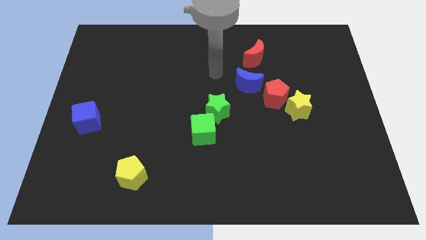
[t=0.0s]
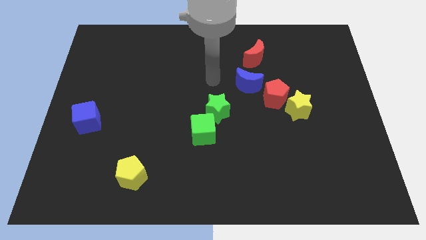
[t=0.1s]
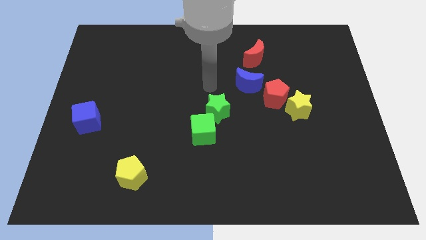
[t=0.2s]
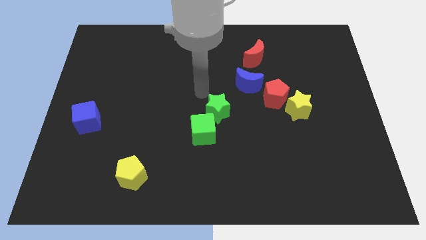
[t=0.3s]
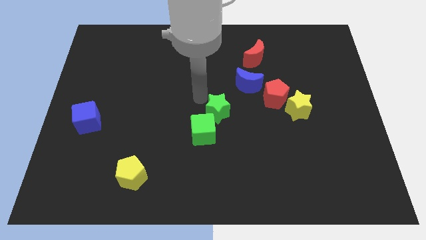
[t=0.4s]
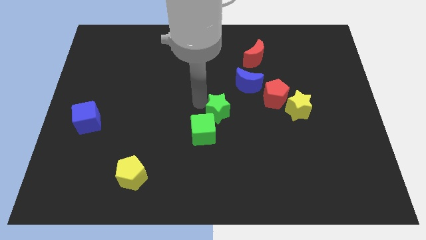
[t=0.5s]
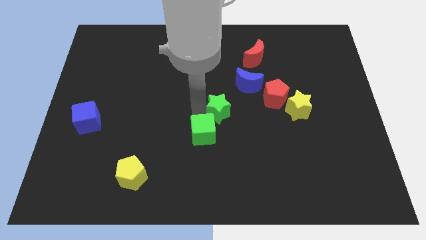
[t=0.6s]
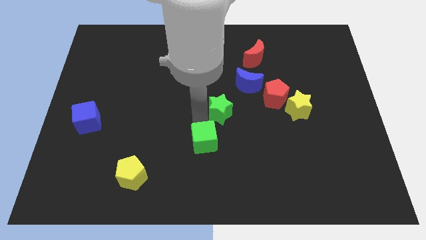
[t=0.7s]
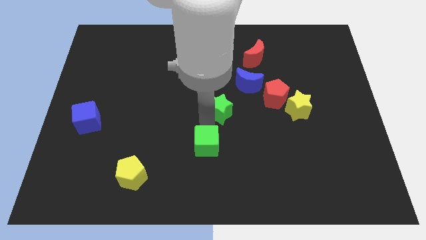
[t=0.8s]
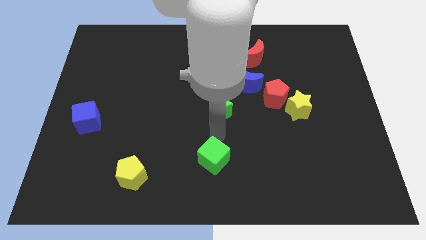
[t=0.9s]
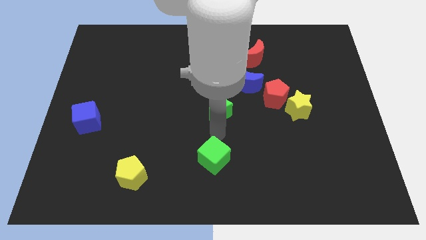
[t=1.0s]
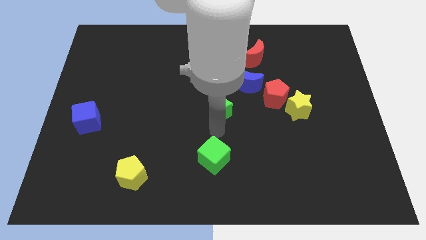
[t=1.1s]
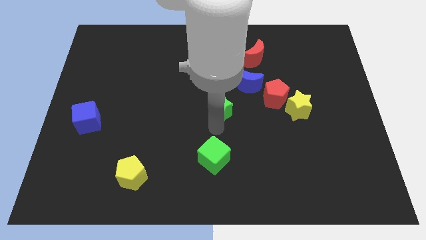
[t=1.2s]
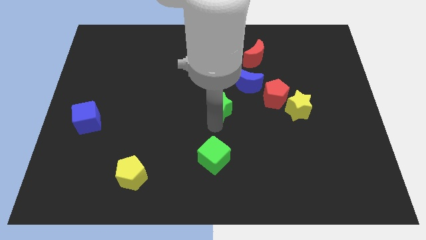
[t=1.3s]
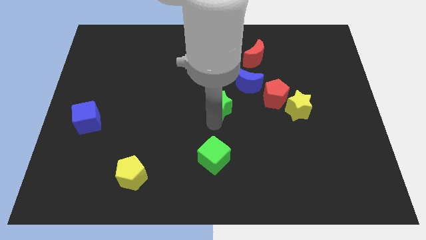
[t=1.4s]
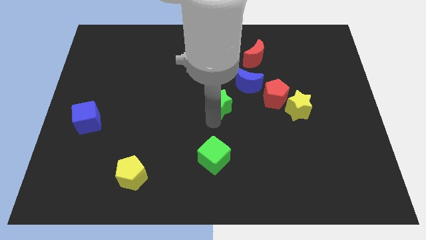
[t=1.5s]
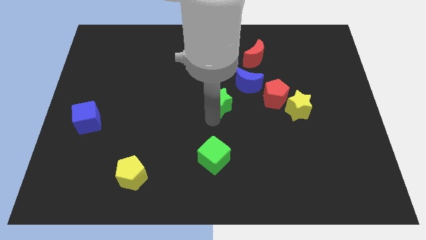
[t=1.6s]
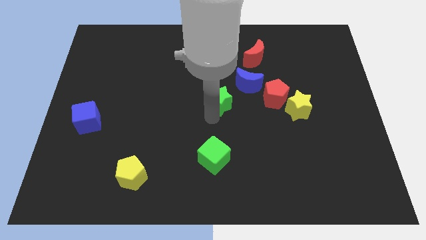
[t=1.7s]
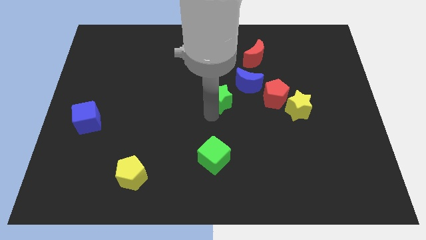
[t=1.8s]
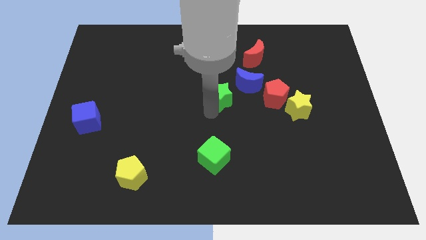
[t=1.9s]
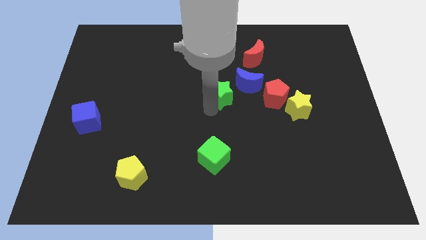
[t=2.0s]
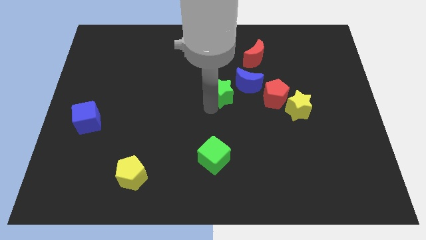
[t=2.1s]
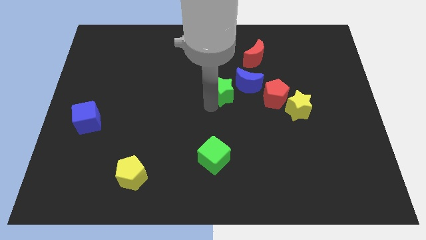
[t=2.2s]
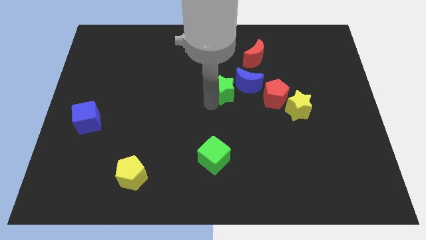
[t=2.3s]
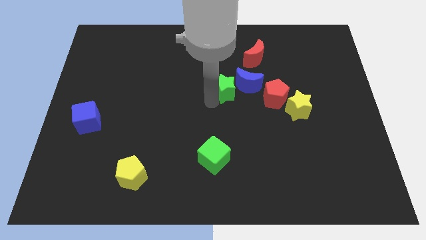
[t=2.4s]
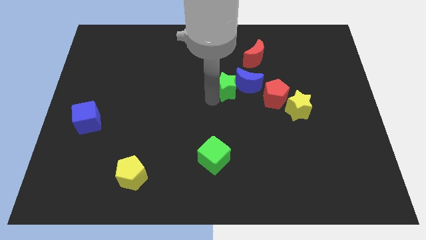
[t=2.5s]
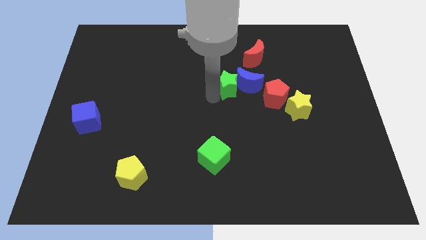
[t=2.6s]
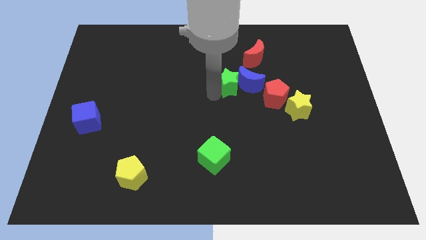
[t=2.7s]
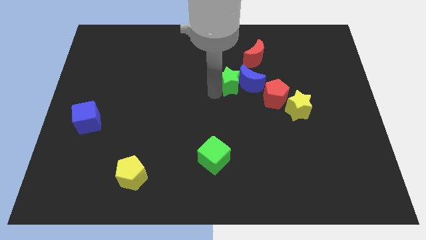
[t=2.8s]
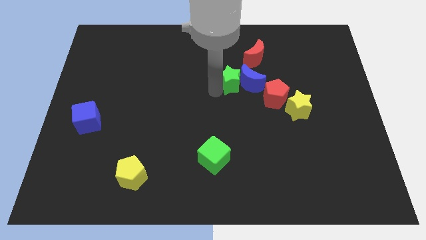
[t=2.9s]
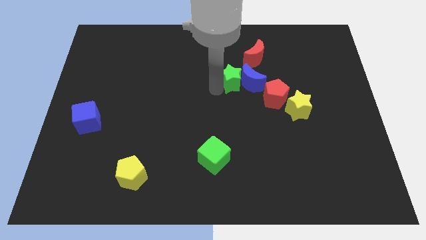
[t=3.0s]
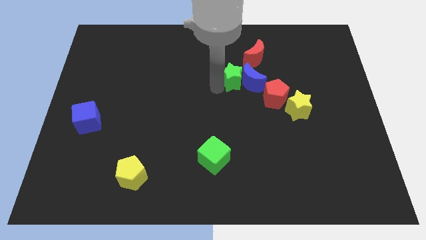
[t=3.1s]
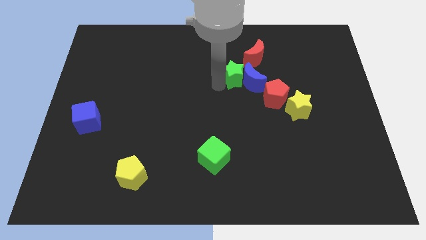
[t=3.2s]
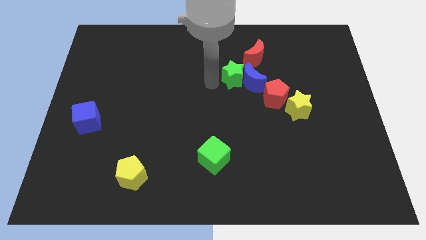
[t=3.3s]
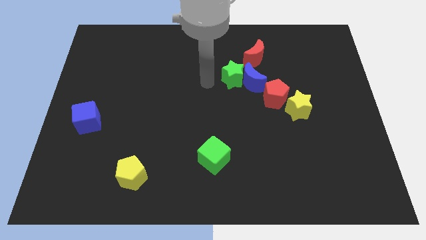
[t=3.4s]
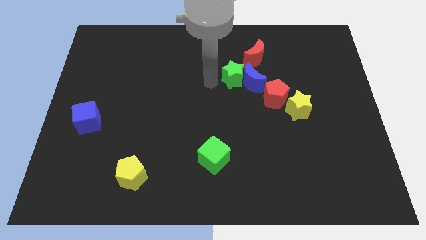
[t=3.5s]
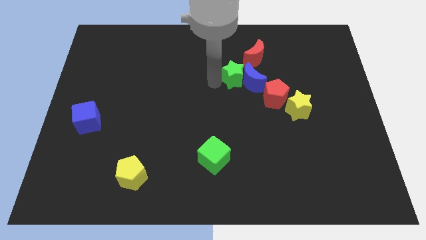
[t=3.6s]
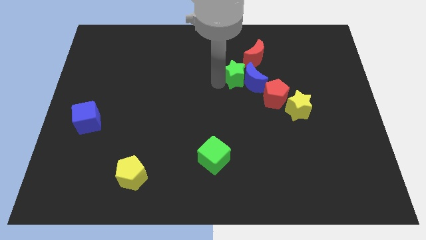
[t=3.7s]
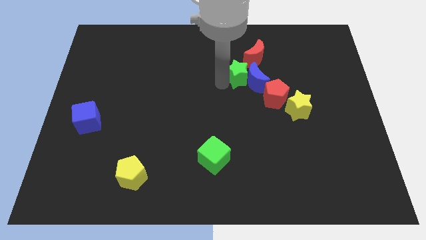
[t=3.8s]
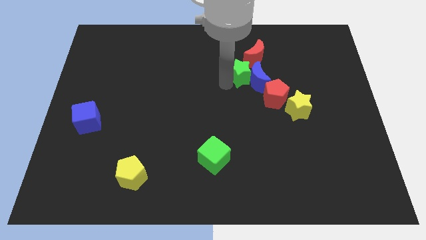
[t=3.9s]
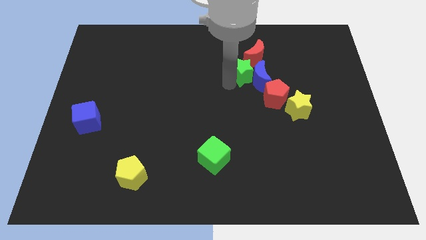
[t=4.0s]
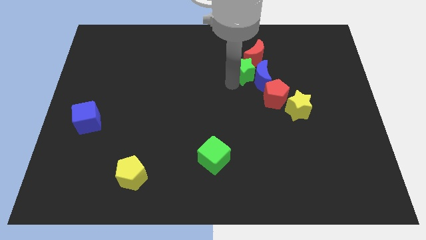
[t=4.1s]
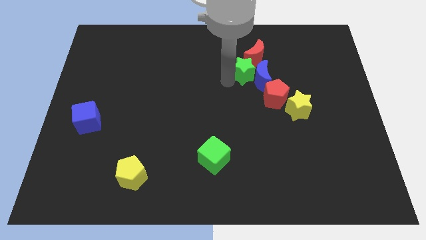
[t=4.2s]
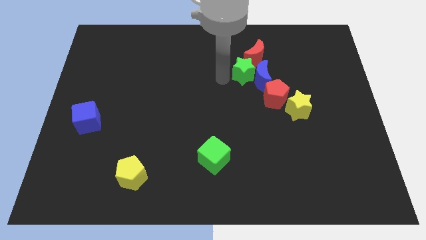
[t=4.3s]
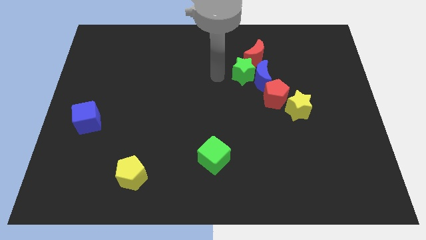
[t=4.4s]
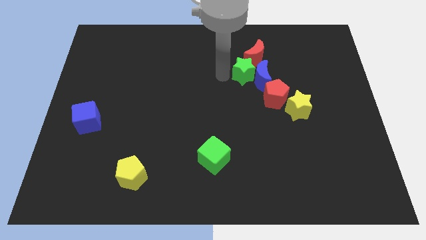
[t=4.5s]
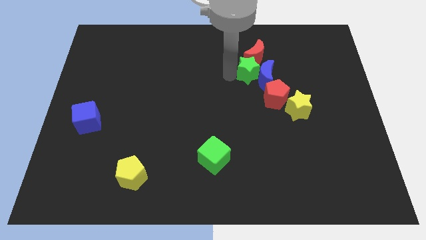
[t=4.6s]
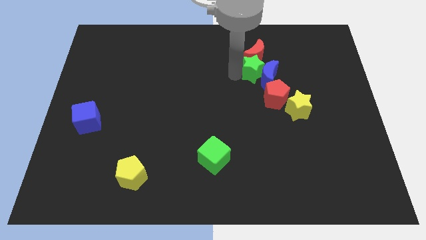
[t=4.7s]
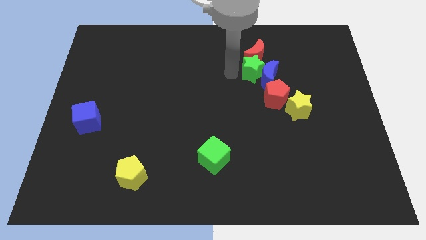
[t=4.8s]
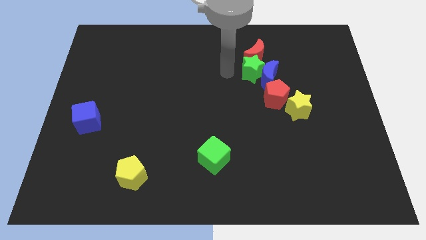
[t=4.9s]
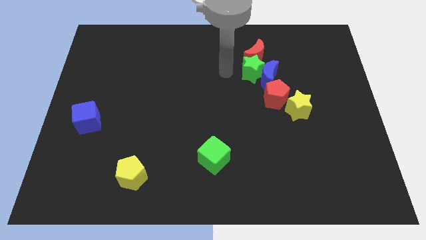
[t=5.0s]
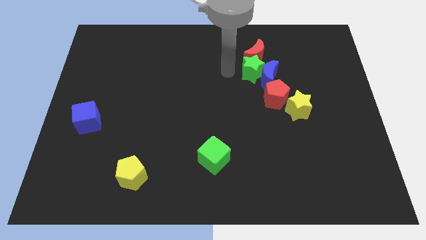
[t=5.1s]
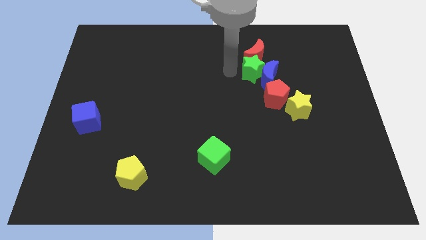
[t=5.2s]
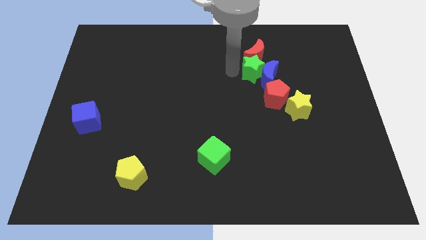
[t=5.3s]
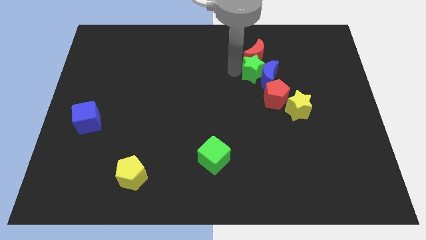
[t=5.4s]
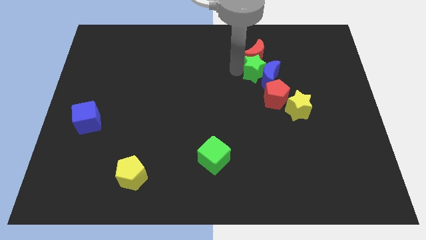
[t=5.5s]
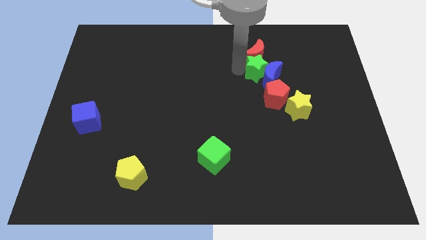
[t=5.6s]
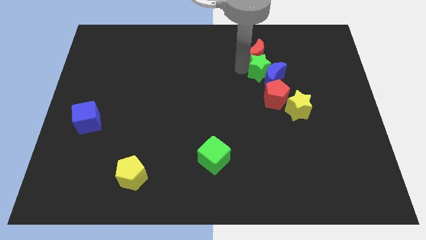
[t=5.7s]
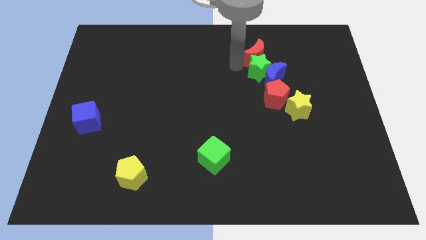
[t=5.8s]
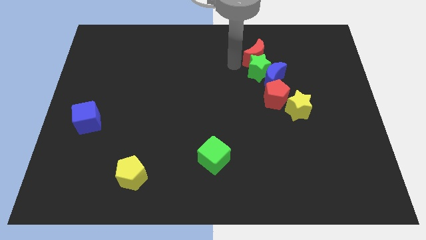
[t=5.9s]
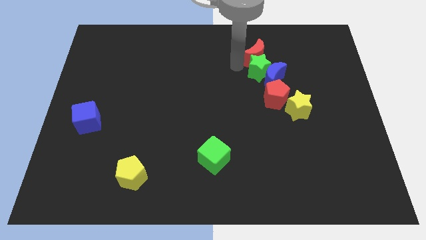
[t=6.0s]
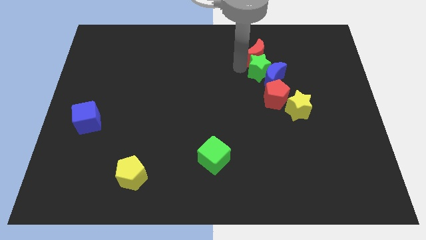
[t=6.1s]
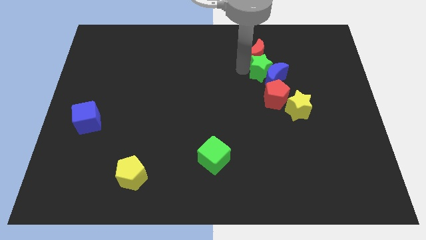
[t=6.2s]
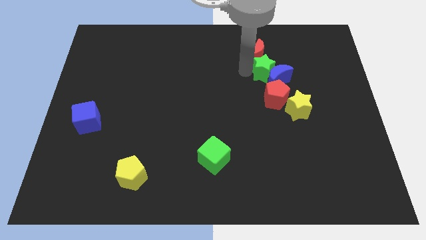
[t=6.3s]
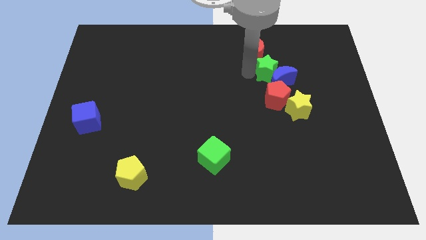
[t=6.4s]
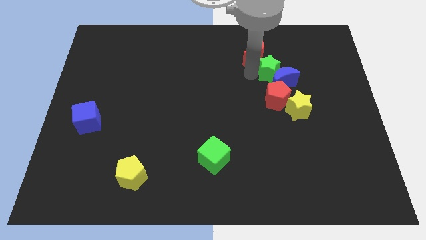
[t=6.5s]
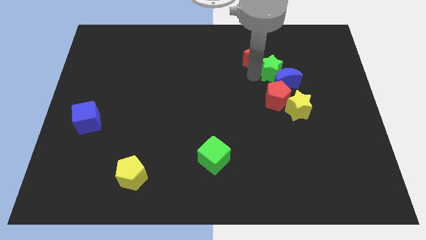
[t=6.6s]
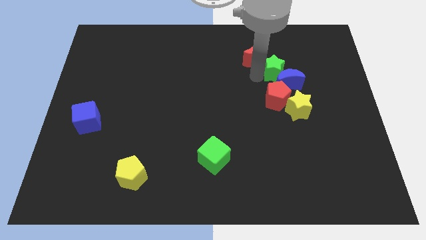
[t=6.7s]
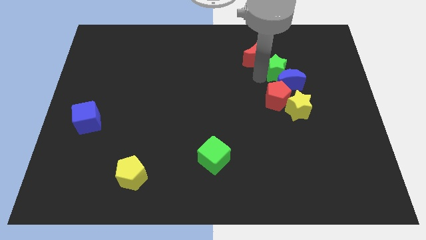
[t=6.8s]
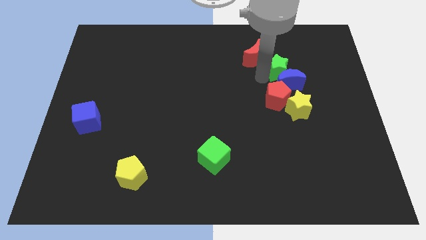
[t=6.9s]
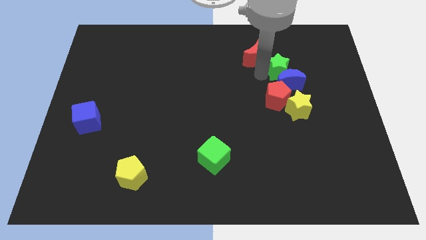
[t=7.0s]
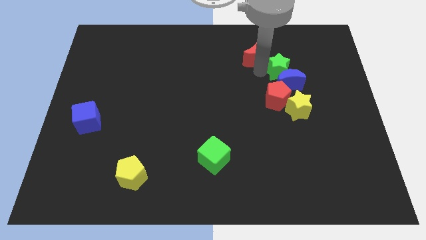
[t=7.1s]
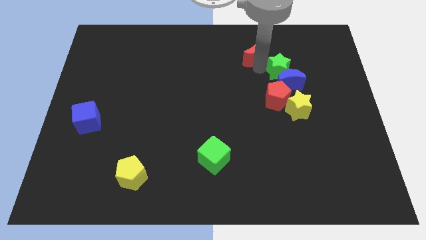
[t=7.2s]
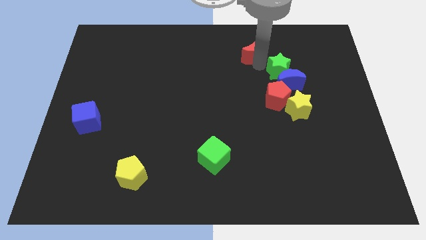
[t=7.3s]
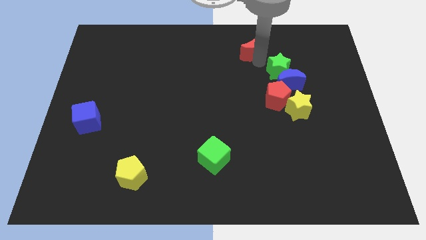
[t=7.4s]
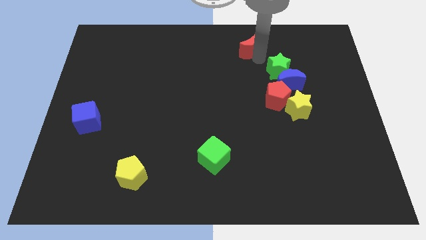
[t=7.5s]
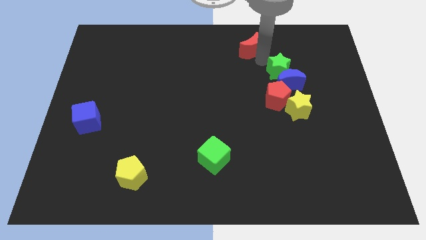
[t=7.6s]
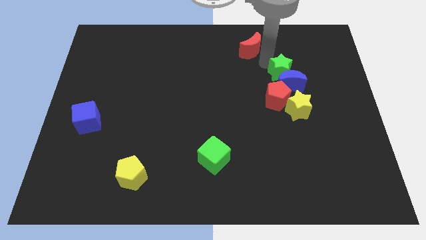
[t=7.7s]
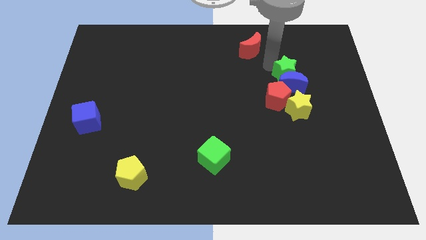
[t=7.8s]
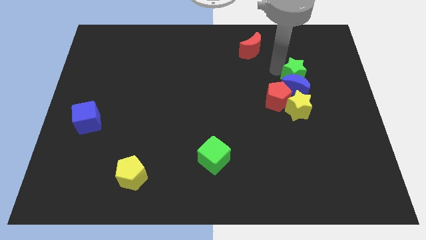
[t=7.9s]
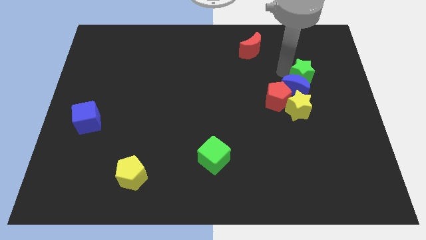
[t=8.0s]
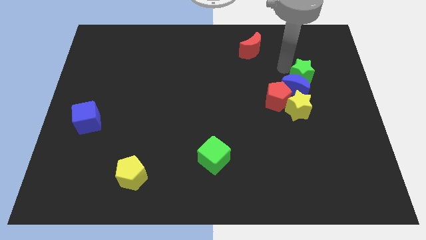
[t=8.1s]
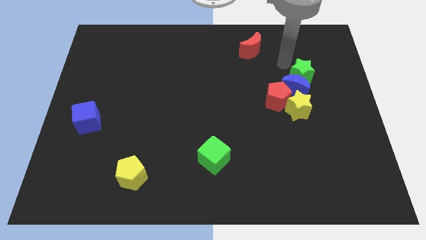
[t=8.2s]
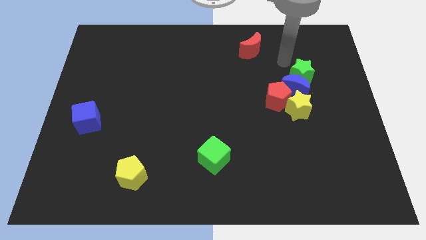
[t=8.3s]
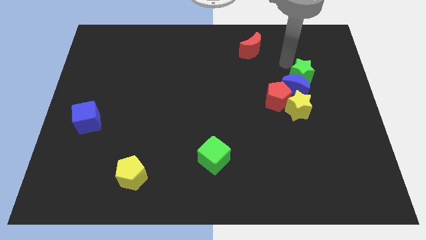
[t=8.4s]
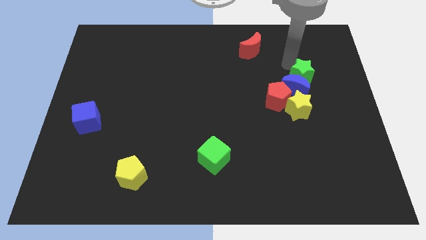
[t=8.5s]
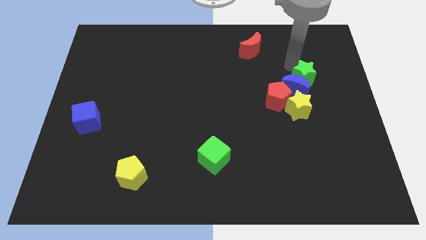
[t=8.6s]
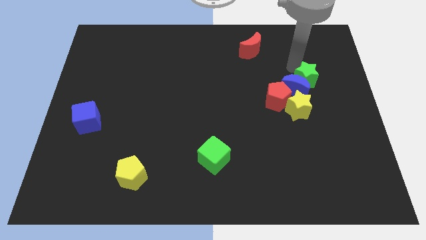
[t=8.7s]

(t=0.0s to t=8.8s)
slide the green star to the top right of the yellow star
